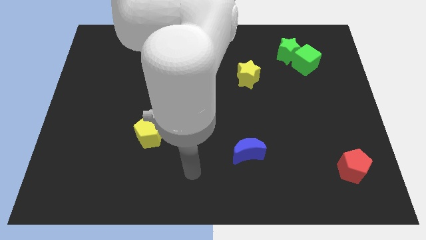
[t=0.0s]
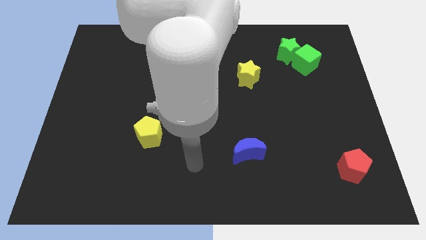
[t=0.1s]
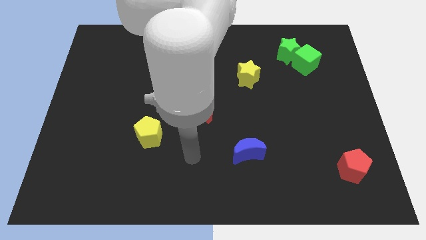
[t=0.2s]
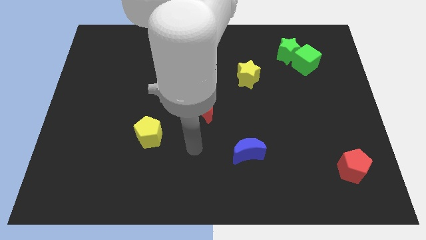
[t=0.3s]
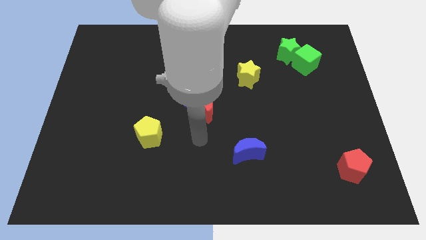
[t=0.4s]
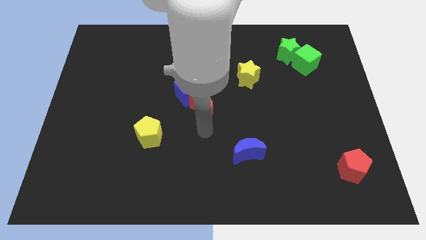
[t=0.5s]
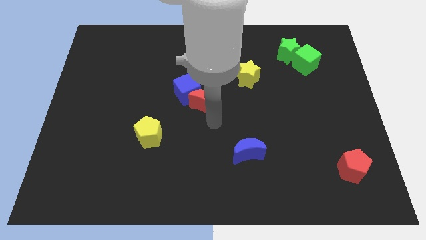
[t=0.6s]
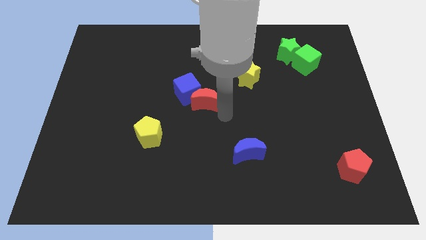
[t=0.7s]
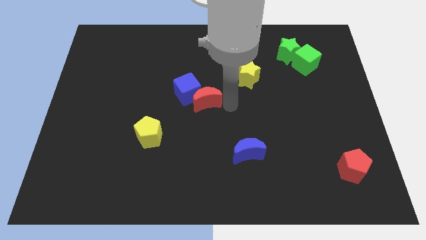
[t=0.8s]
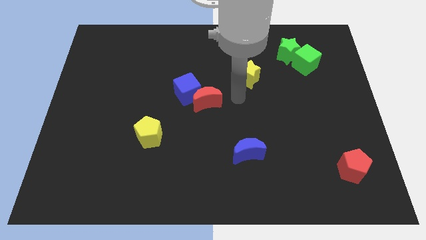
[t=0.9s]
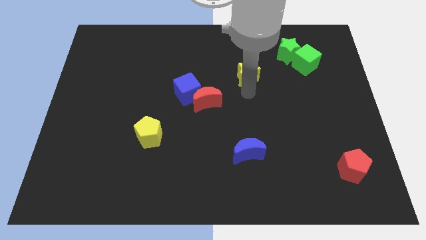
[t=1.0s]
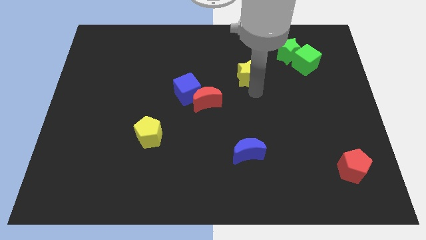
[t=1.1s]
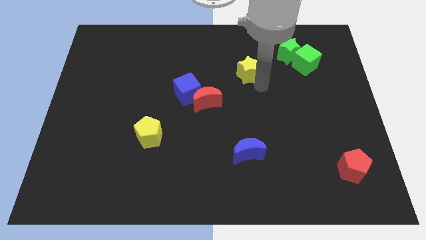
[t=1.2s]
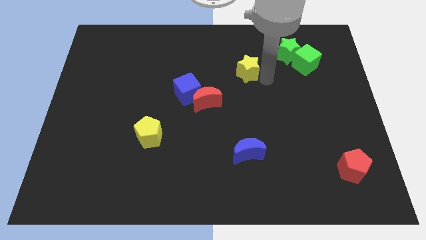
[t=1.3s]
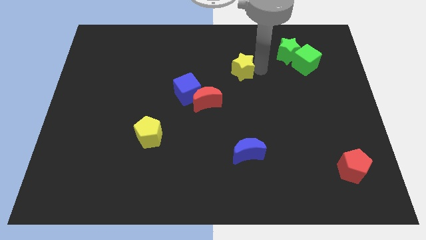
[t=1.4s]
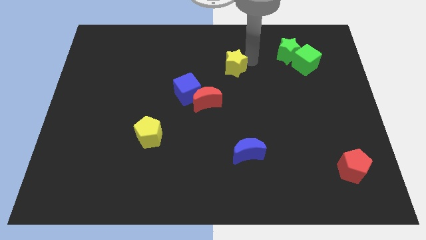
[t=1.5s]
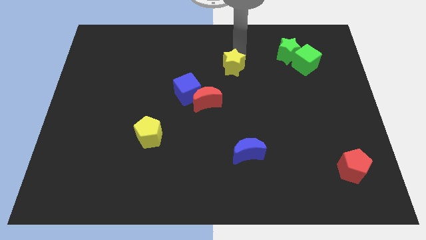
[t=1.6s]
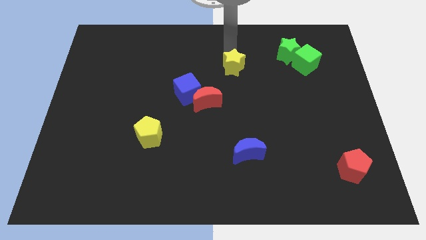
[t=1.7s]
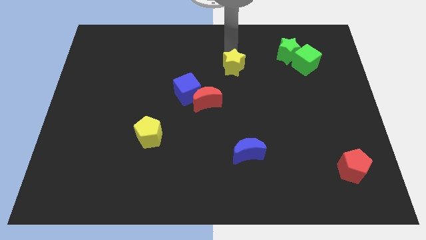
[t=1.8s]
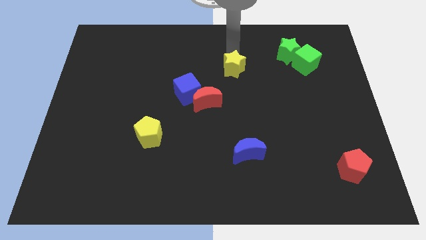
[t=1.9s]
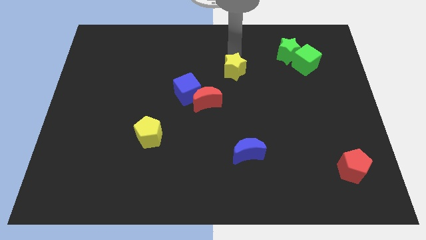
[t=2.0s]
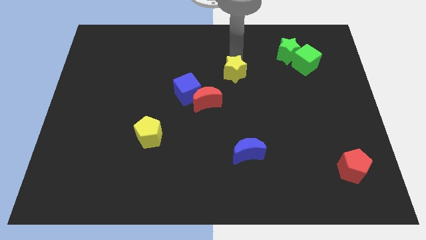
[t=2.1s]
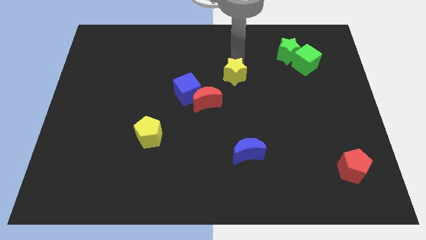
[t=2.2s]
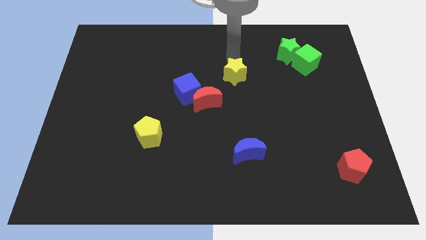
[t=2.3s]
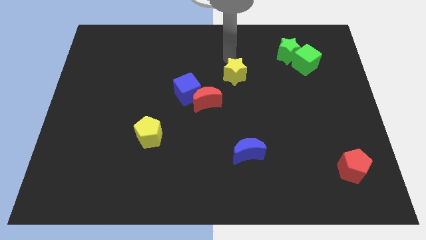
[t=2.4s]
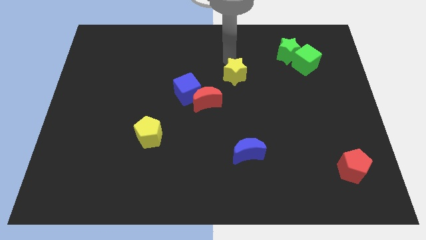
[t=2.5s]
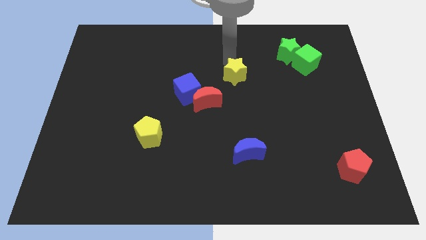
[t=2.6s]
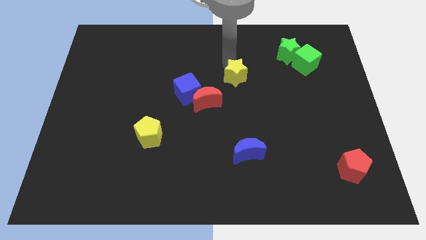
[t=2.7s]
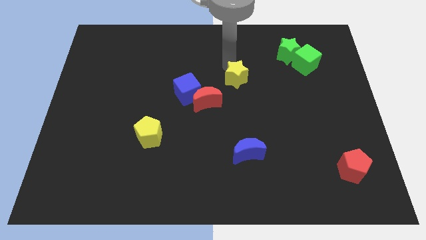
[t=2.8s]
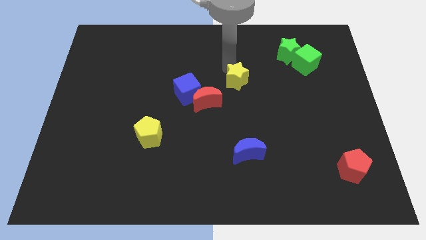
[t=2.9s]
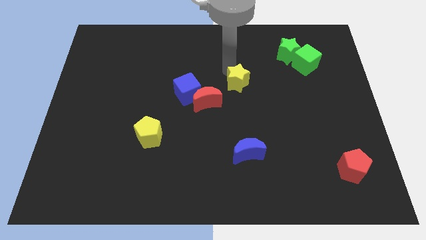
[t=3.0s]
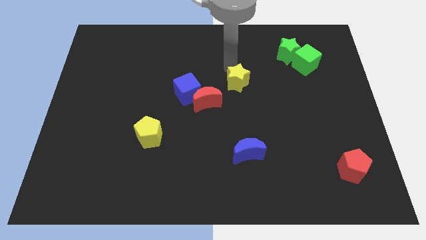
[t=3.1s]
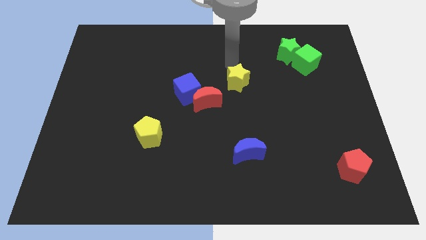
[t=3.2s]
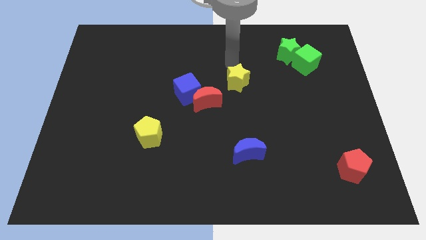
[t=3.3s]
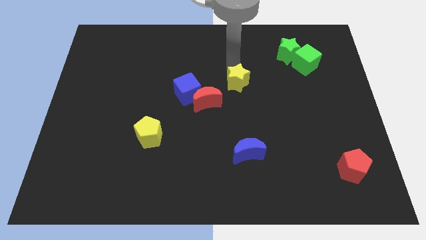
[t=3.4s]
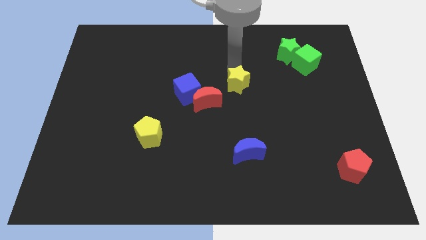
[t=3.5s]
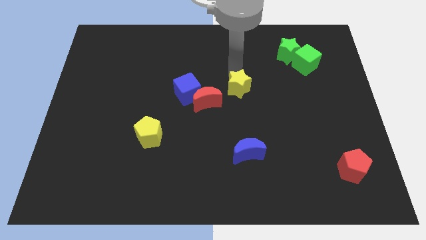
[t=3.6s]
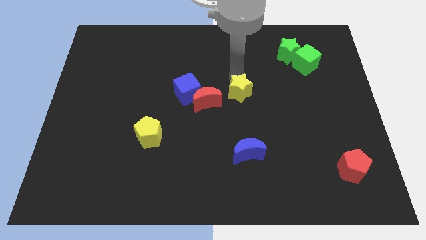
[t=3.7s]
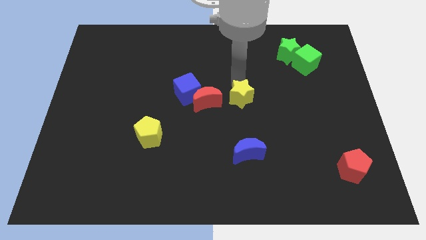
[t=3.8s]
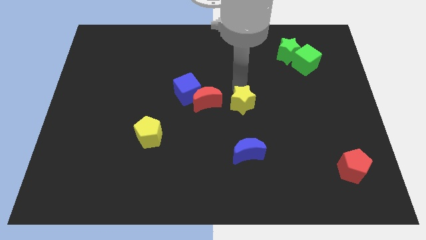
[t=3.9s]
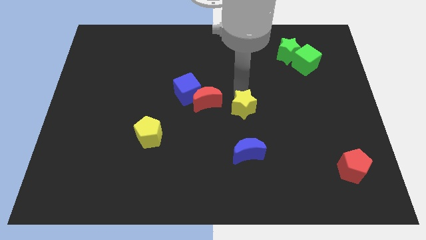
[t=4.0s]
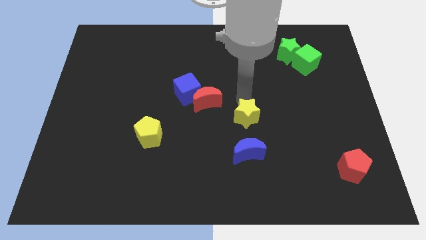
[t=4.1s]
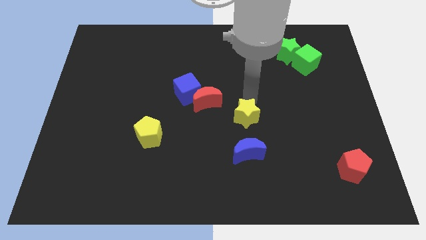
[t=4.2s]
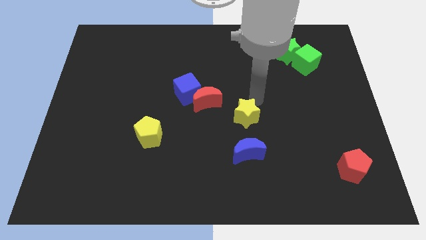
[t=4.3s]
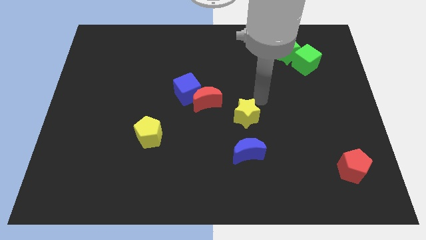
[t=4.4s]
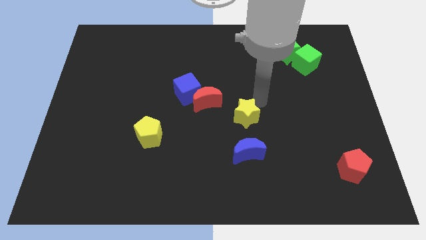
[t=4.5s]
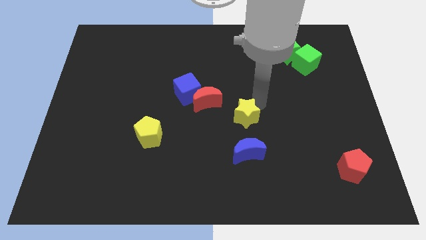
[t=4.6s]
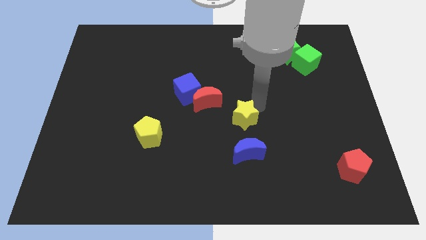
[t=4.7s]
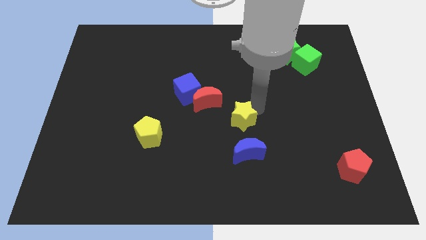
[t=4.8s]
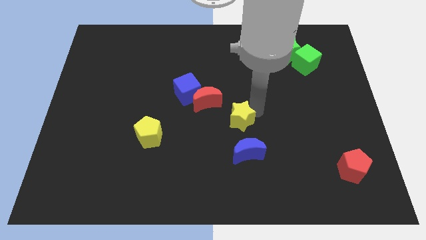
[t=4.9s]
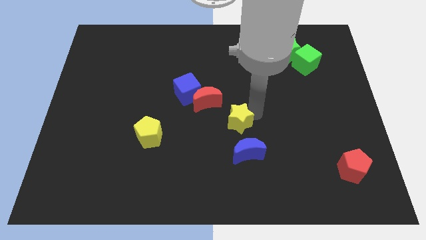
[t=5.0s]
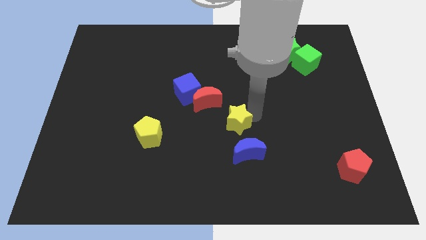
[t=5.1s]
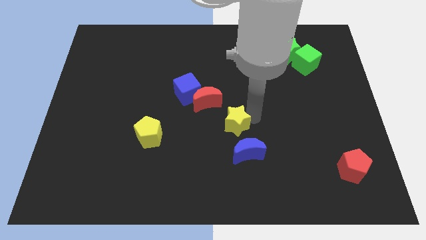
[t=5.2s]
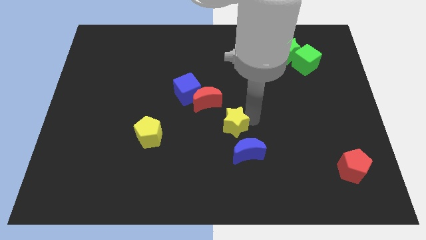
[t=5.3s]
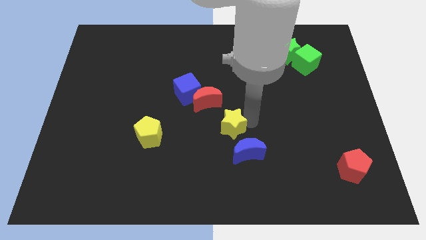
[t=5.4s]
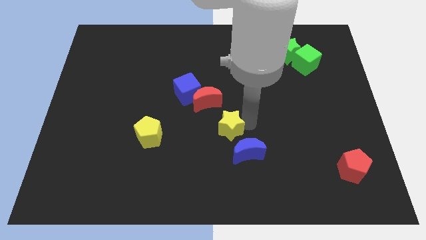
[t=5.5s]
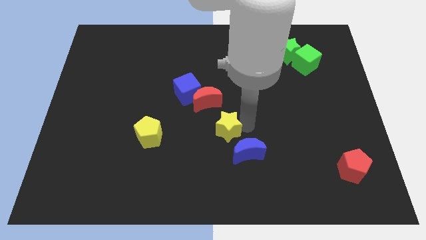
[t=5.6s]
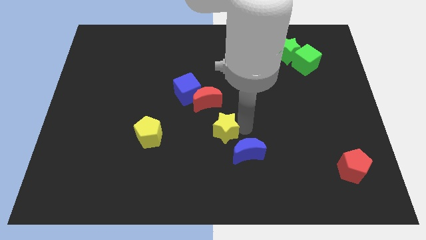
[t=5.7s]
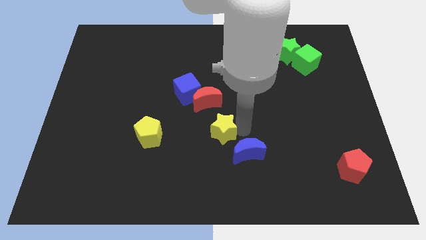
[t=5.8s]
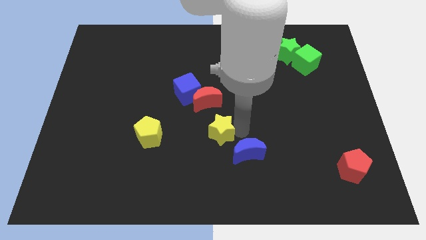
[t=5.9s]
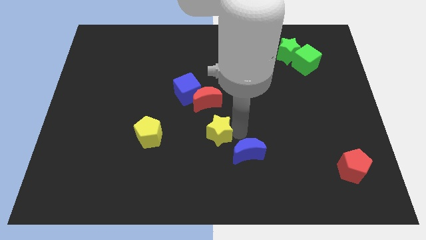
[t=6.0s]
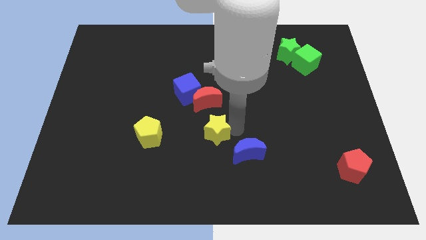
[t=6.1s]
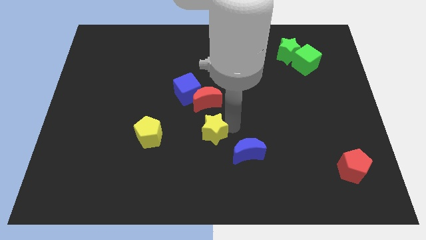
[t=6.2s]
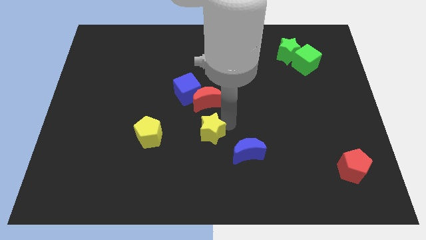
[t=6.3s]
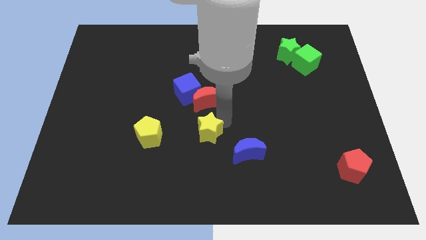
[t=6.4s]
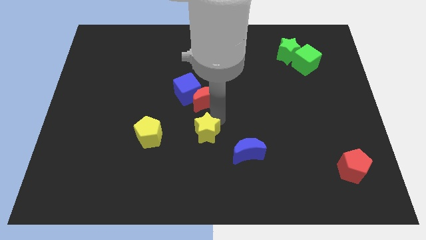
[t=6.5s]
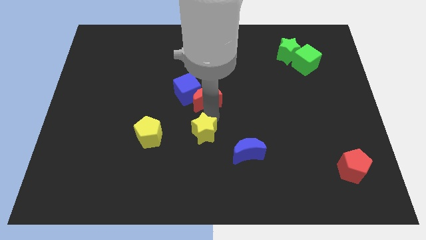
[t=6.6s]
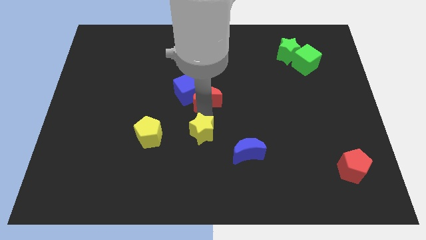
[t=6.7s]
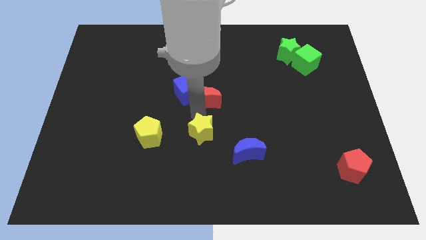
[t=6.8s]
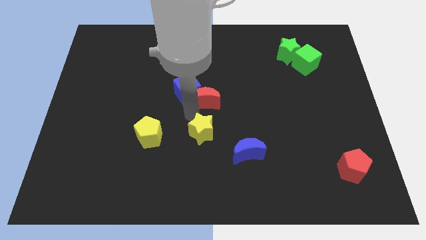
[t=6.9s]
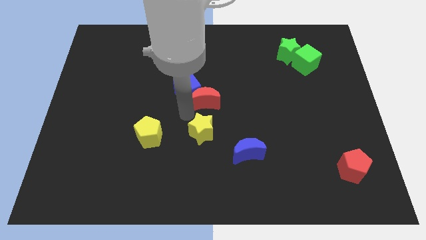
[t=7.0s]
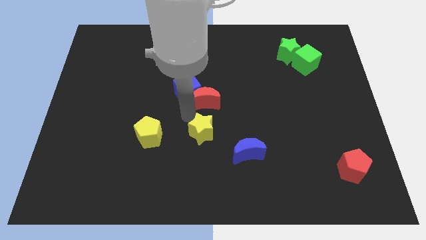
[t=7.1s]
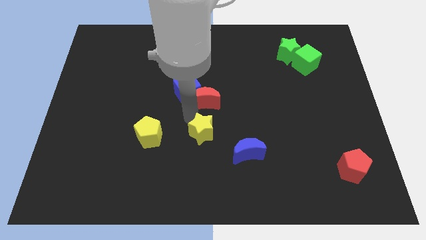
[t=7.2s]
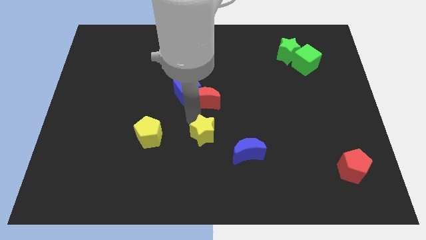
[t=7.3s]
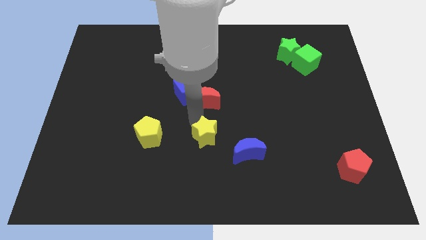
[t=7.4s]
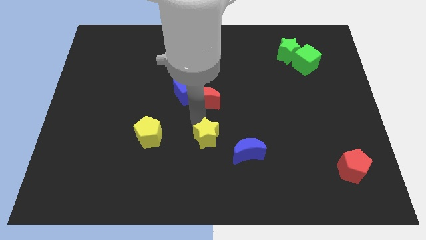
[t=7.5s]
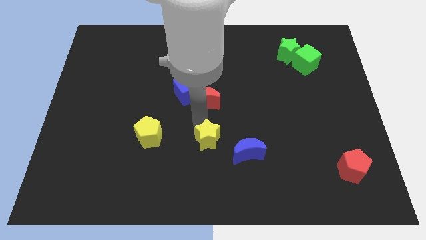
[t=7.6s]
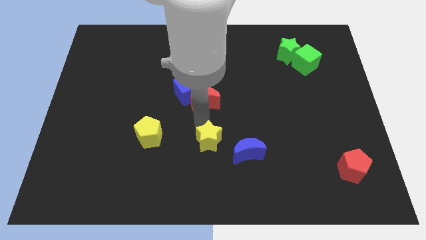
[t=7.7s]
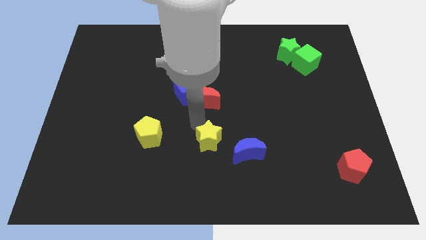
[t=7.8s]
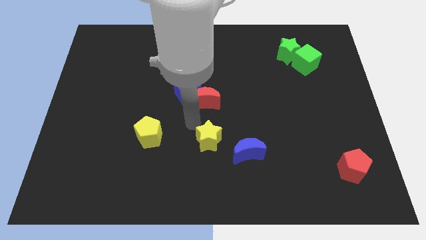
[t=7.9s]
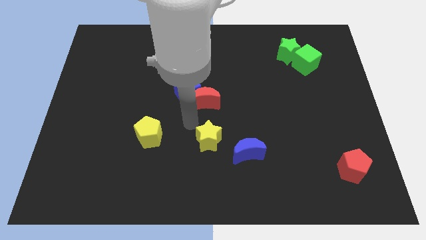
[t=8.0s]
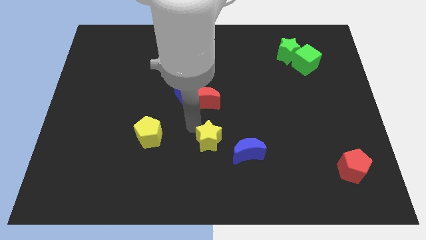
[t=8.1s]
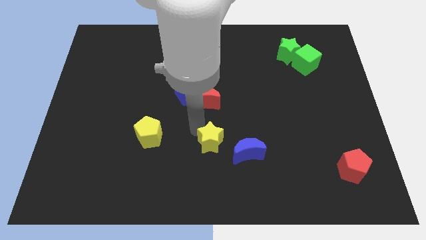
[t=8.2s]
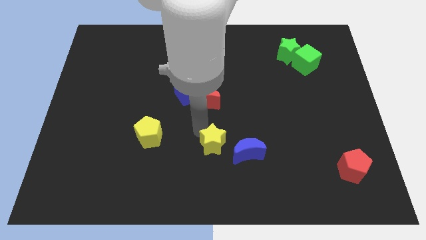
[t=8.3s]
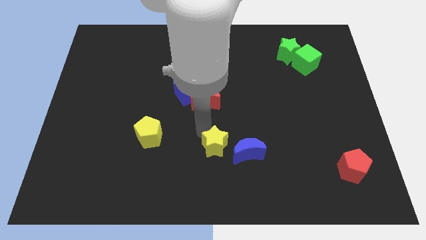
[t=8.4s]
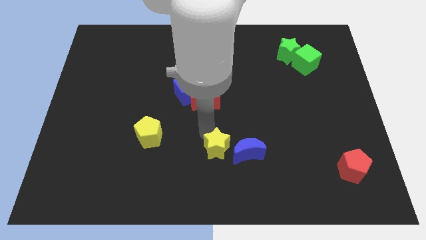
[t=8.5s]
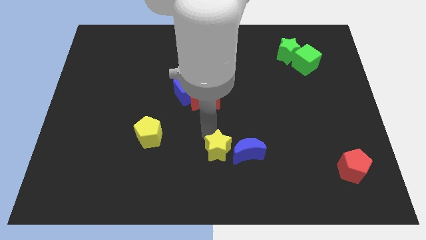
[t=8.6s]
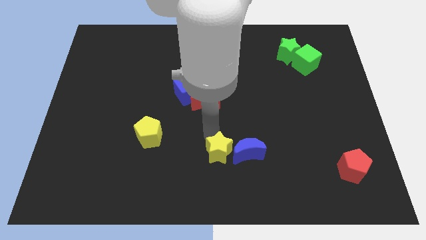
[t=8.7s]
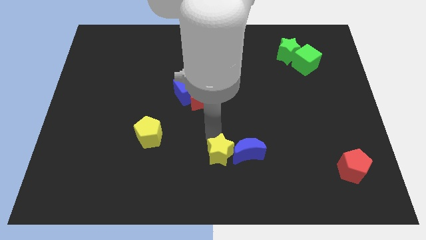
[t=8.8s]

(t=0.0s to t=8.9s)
move the yellow star to the bottom side
